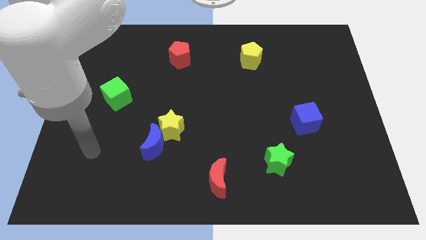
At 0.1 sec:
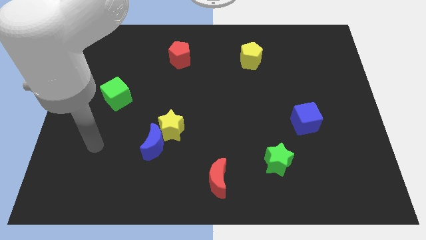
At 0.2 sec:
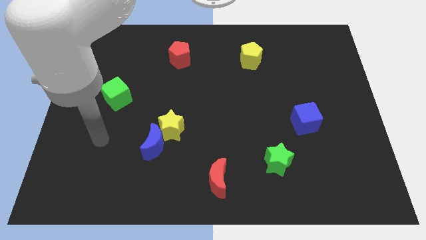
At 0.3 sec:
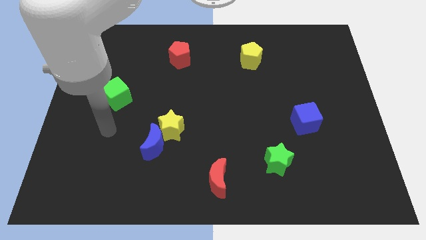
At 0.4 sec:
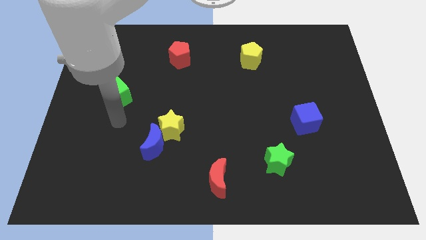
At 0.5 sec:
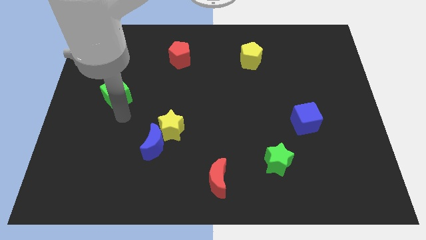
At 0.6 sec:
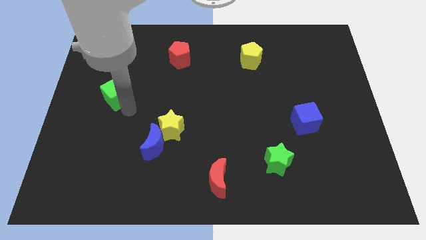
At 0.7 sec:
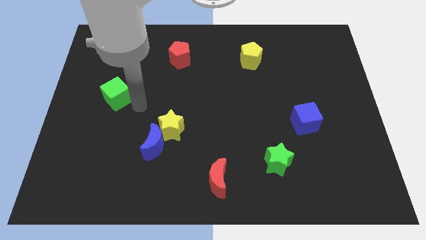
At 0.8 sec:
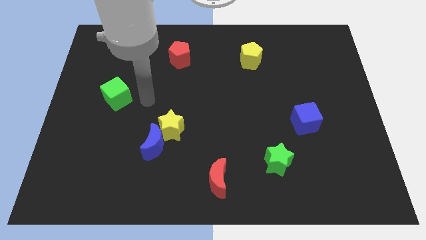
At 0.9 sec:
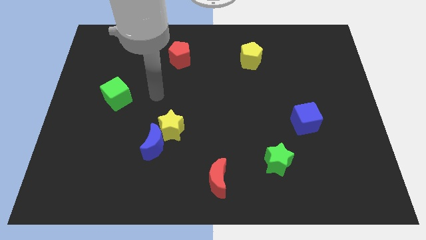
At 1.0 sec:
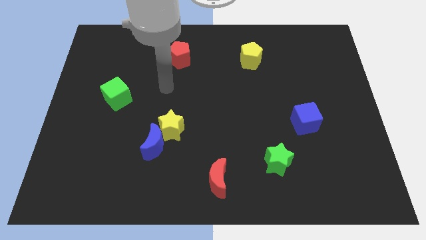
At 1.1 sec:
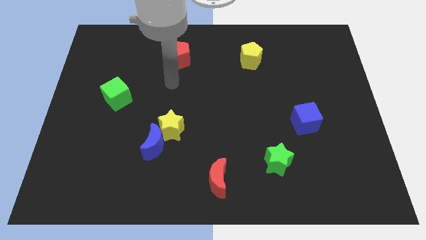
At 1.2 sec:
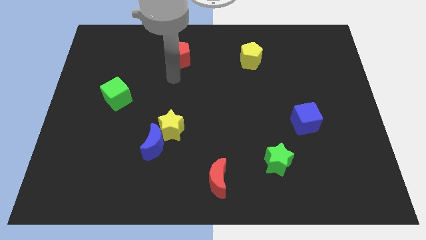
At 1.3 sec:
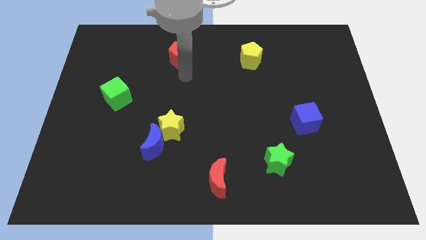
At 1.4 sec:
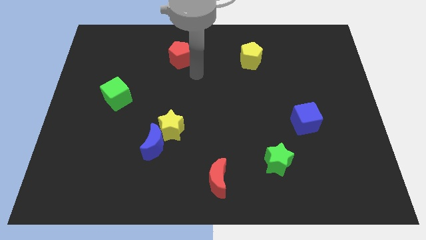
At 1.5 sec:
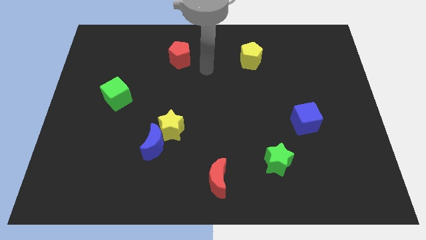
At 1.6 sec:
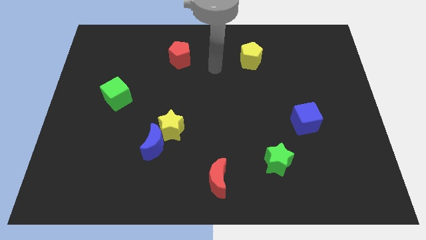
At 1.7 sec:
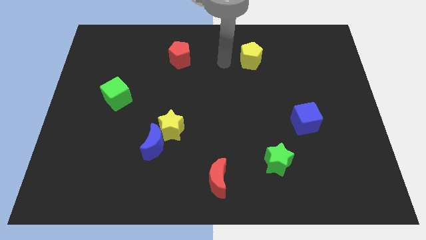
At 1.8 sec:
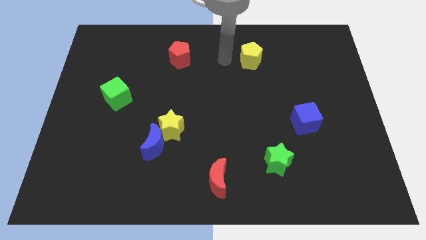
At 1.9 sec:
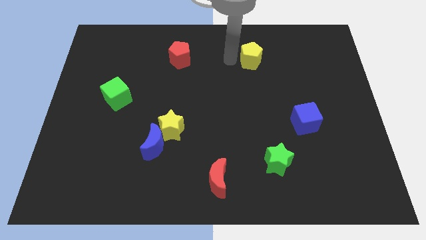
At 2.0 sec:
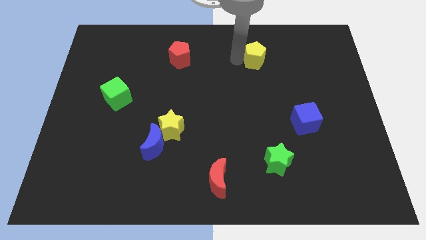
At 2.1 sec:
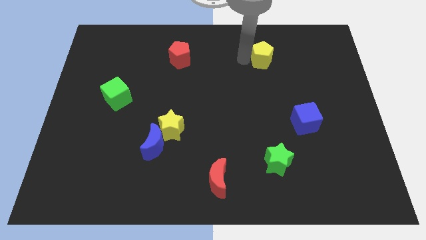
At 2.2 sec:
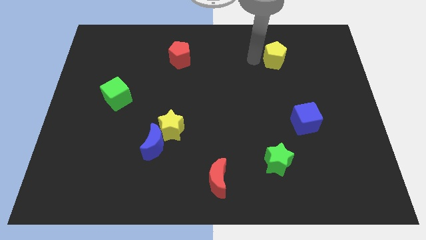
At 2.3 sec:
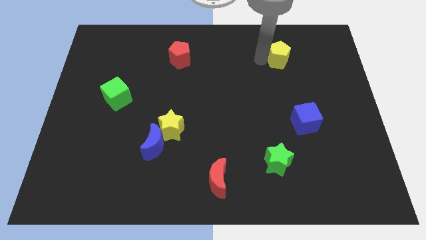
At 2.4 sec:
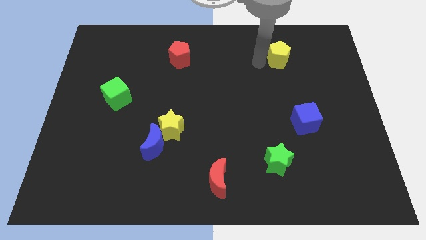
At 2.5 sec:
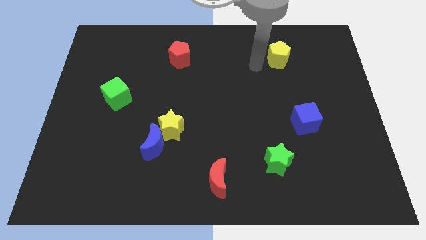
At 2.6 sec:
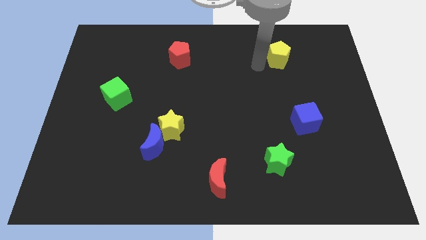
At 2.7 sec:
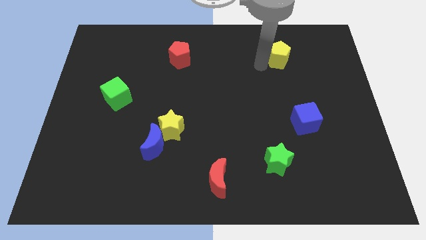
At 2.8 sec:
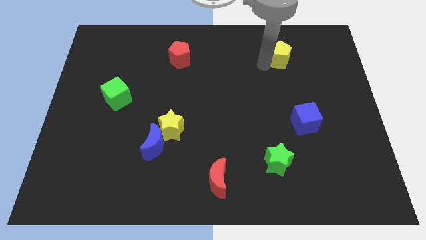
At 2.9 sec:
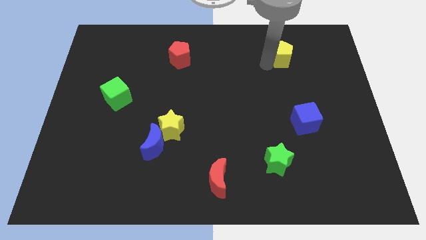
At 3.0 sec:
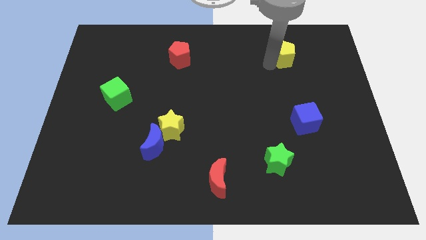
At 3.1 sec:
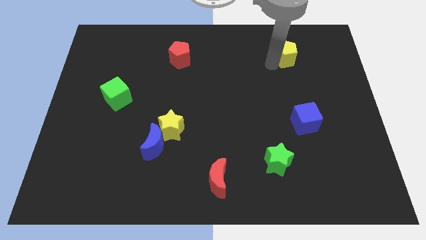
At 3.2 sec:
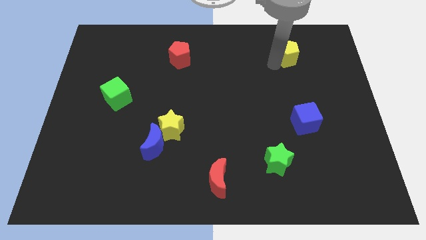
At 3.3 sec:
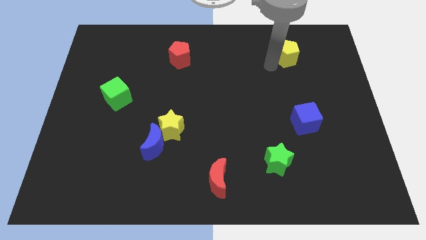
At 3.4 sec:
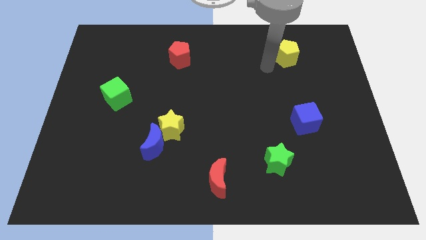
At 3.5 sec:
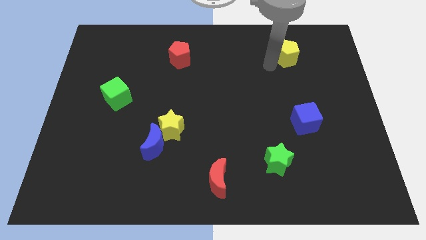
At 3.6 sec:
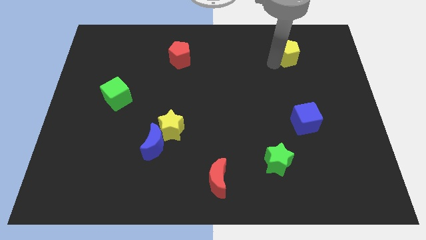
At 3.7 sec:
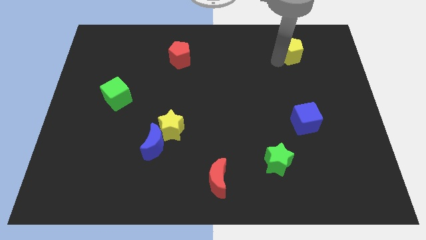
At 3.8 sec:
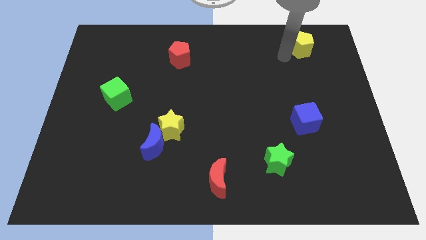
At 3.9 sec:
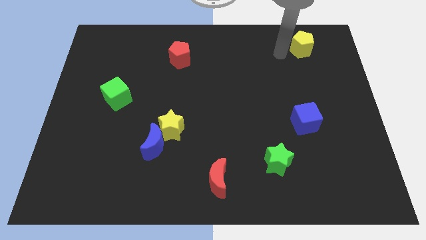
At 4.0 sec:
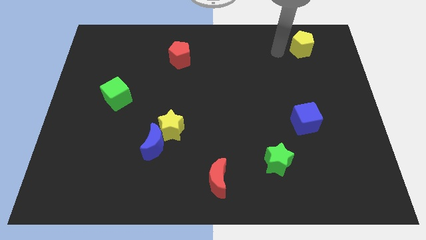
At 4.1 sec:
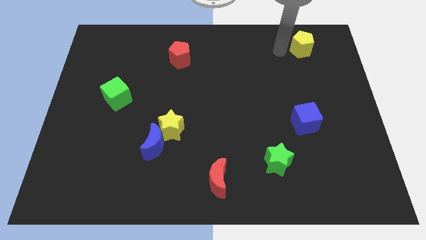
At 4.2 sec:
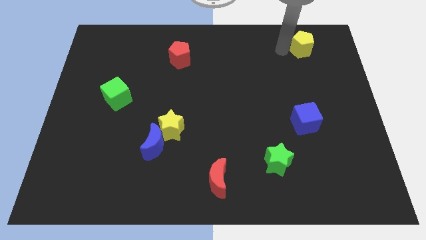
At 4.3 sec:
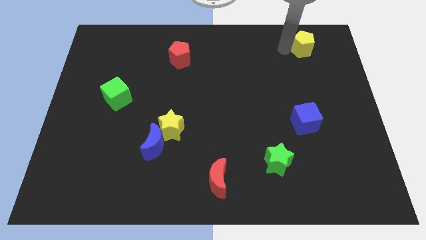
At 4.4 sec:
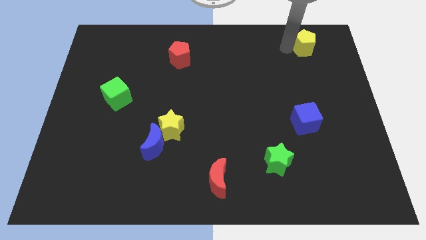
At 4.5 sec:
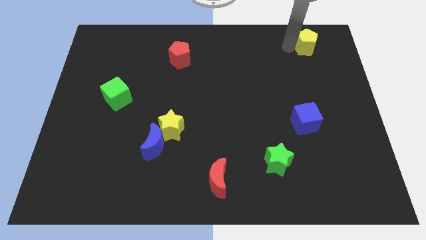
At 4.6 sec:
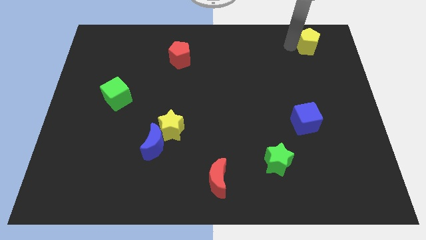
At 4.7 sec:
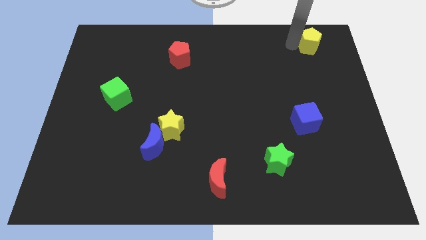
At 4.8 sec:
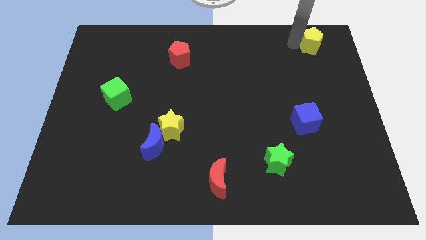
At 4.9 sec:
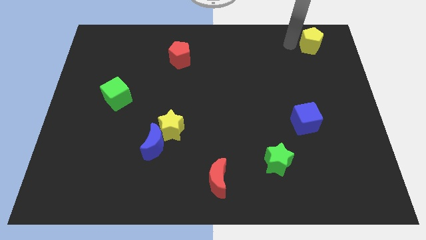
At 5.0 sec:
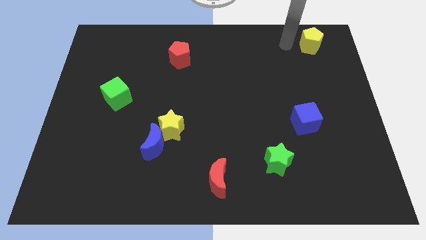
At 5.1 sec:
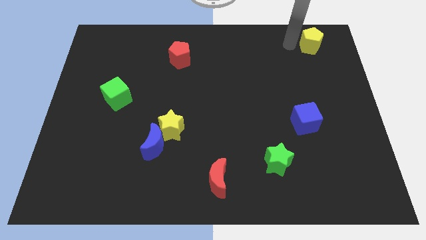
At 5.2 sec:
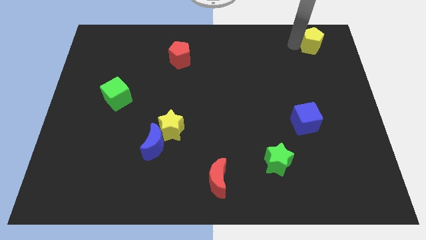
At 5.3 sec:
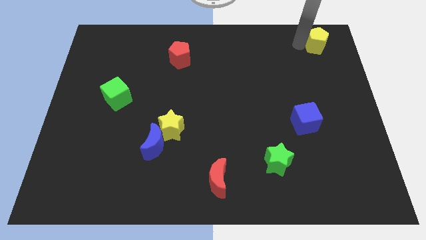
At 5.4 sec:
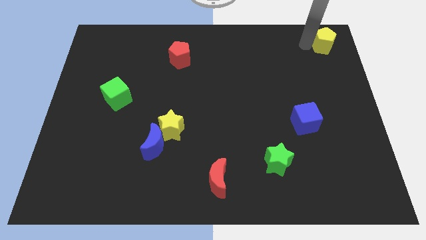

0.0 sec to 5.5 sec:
put the yellow pentagon to the top right of the board

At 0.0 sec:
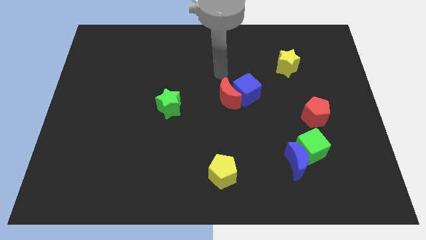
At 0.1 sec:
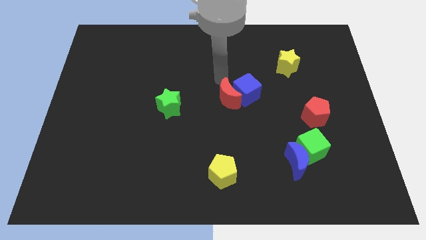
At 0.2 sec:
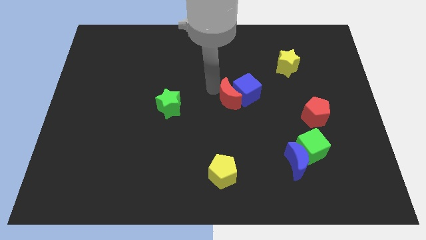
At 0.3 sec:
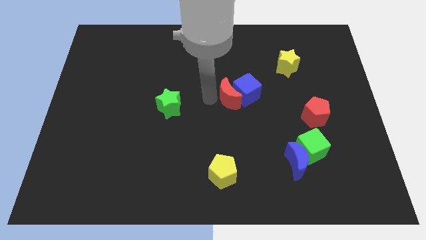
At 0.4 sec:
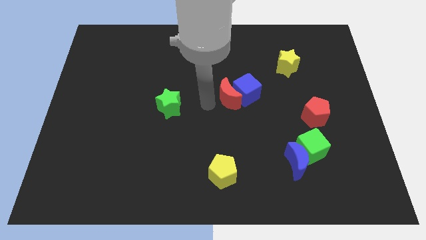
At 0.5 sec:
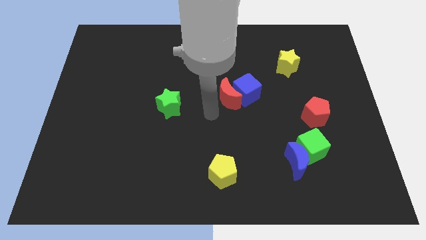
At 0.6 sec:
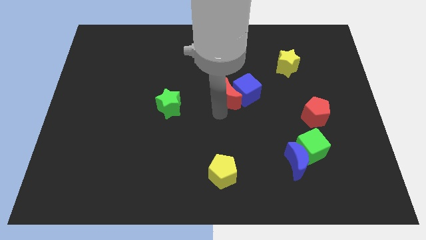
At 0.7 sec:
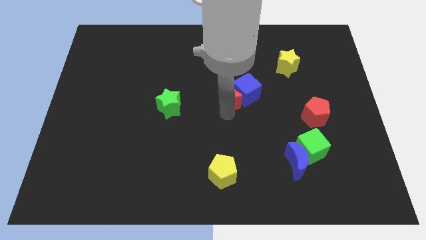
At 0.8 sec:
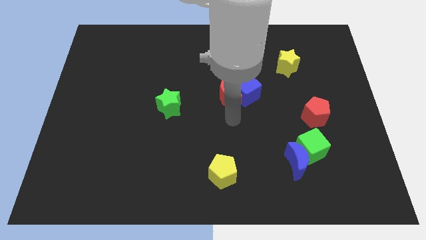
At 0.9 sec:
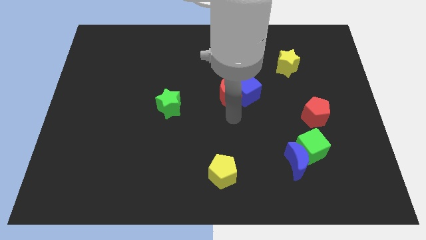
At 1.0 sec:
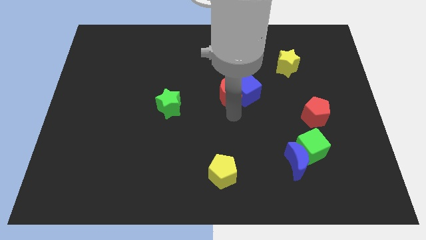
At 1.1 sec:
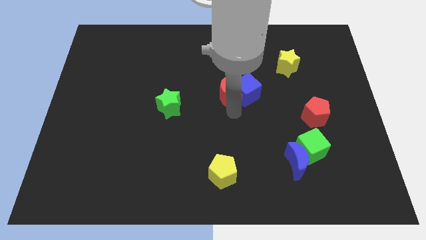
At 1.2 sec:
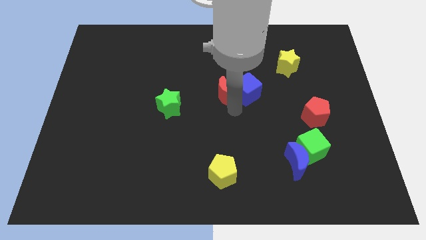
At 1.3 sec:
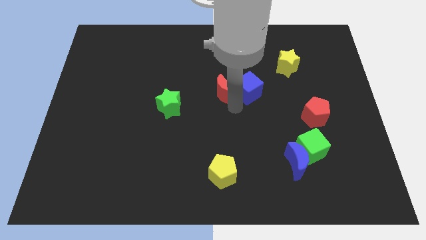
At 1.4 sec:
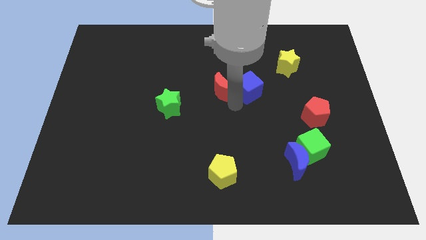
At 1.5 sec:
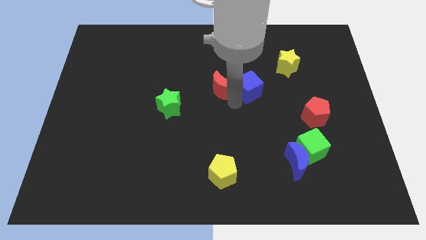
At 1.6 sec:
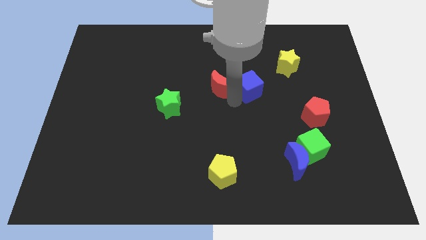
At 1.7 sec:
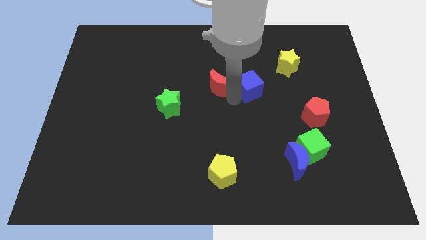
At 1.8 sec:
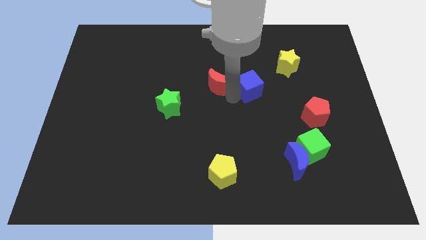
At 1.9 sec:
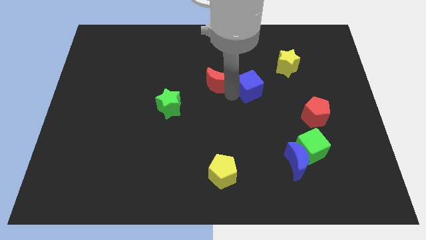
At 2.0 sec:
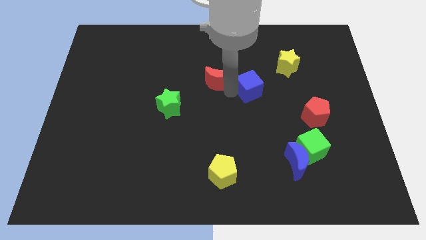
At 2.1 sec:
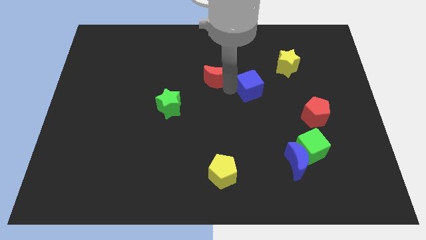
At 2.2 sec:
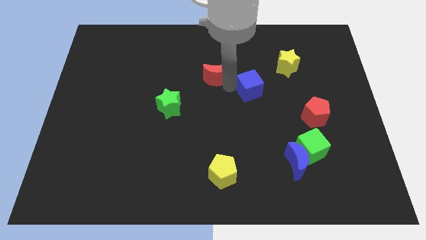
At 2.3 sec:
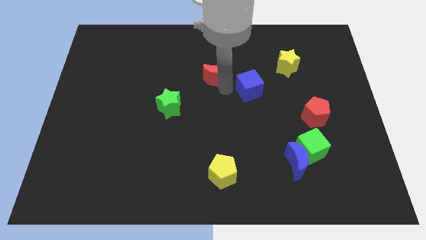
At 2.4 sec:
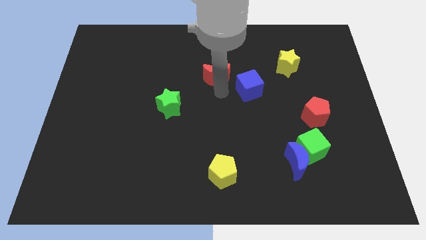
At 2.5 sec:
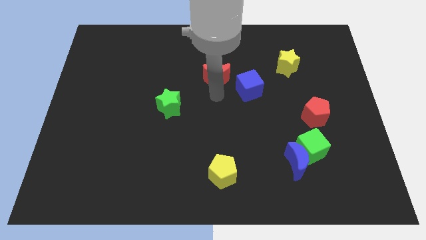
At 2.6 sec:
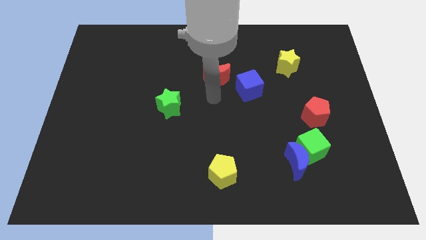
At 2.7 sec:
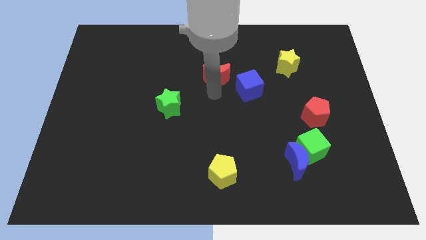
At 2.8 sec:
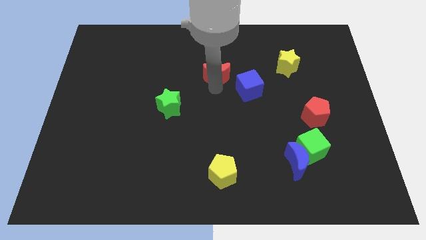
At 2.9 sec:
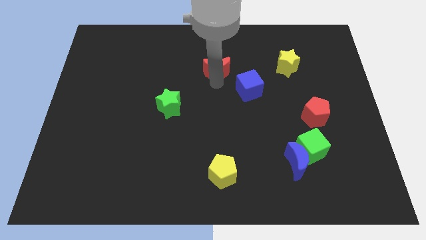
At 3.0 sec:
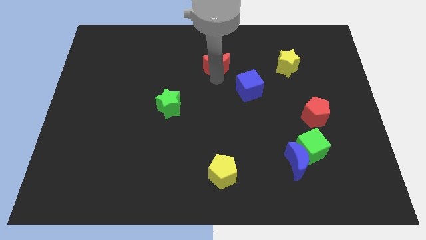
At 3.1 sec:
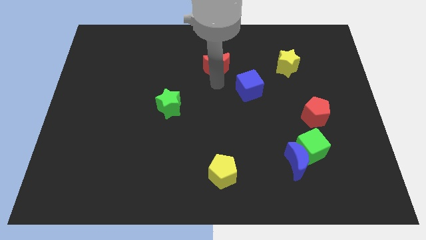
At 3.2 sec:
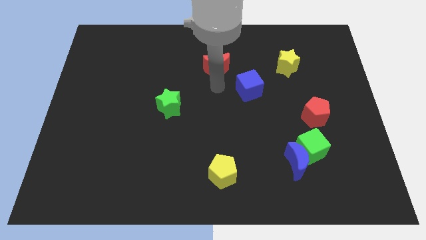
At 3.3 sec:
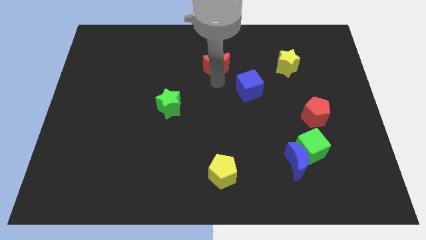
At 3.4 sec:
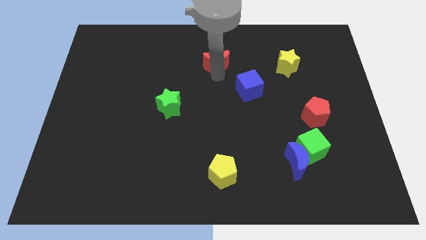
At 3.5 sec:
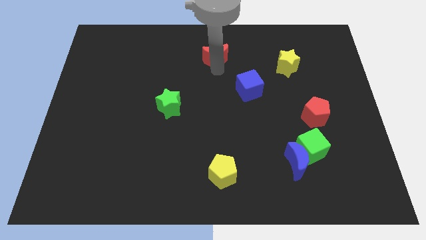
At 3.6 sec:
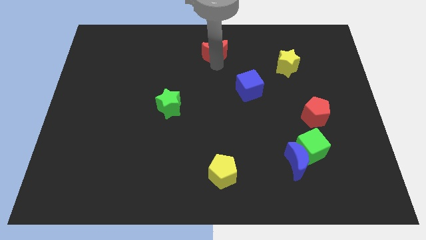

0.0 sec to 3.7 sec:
slide the red moon to the top
